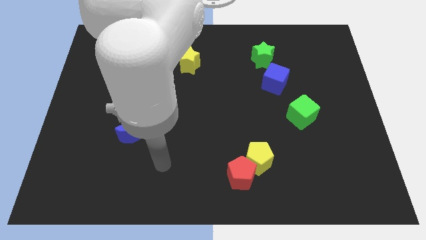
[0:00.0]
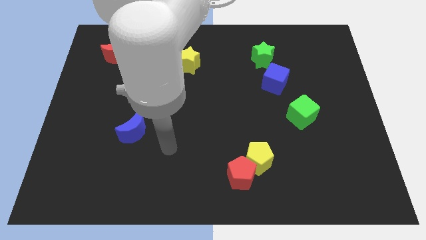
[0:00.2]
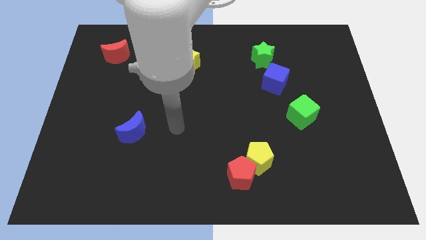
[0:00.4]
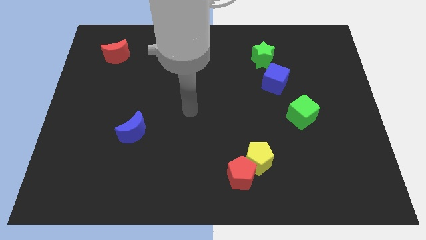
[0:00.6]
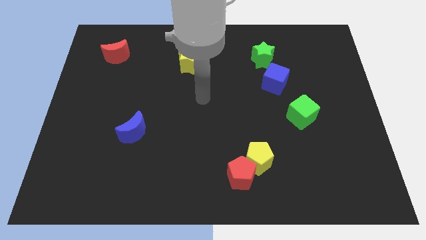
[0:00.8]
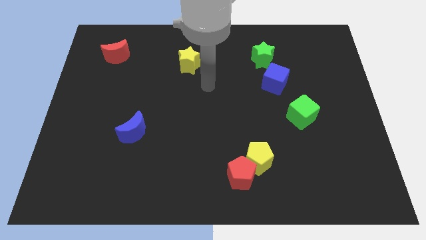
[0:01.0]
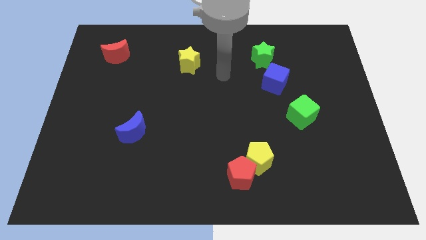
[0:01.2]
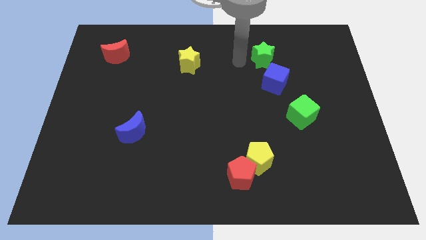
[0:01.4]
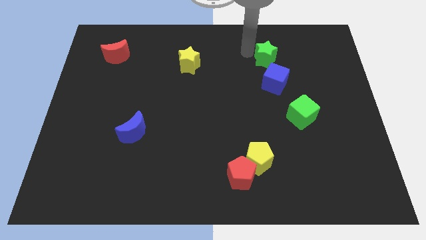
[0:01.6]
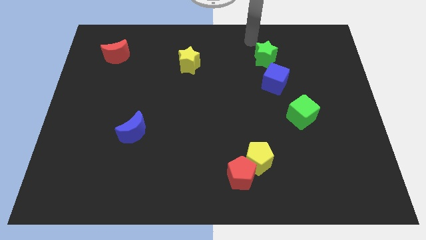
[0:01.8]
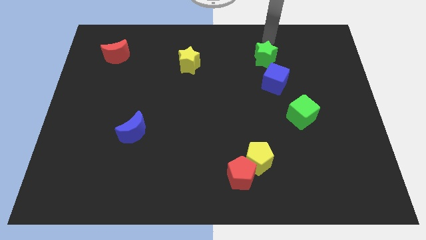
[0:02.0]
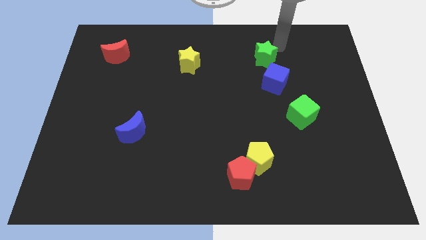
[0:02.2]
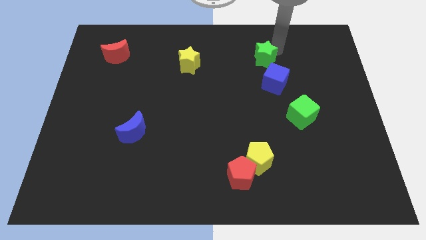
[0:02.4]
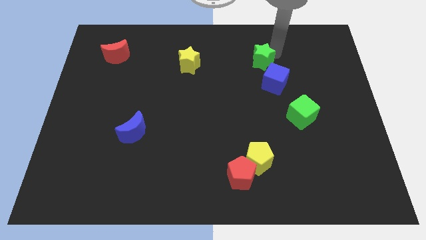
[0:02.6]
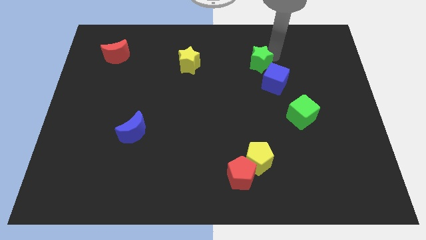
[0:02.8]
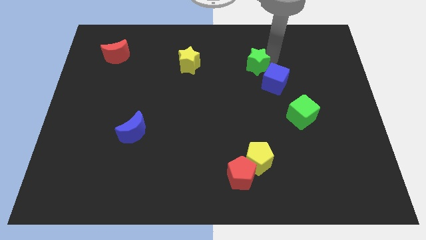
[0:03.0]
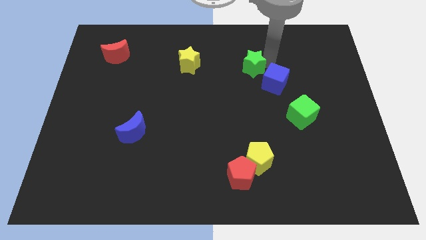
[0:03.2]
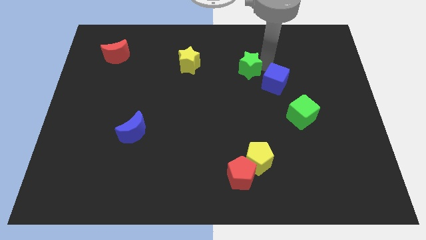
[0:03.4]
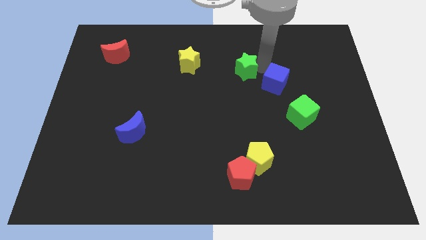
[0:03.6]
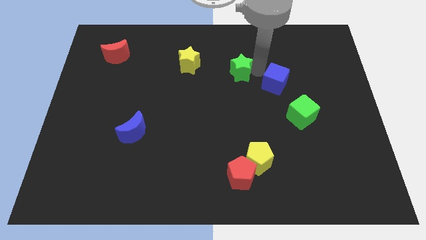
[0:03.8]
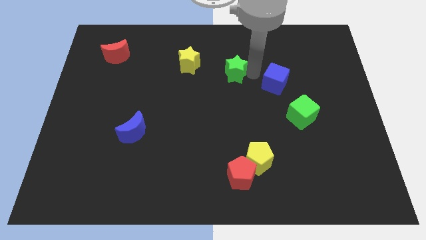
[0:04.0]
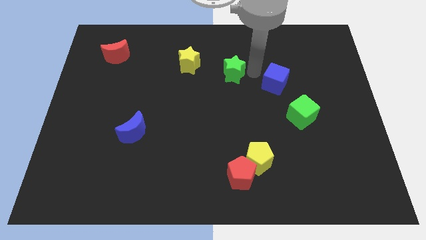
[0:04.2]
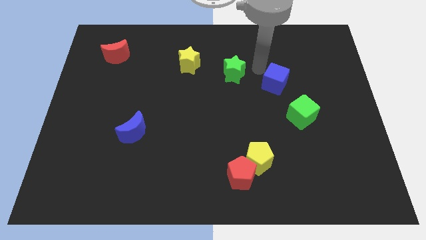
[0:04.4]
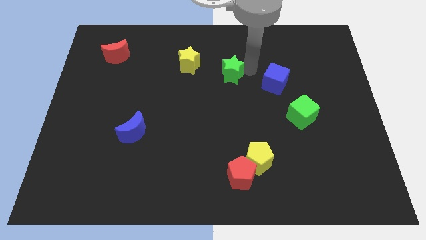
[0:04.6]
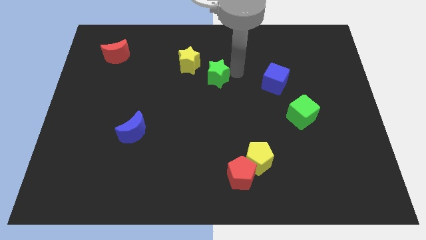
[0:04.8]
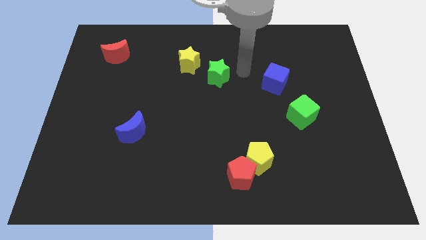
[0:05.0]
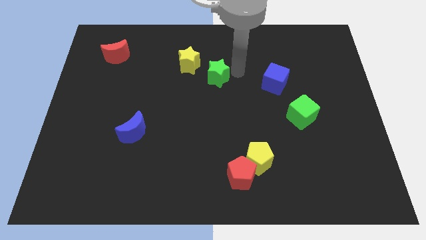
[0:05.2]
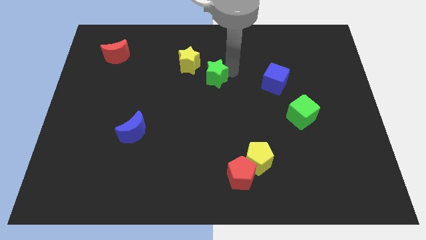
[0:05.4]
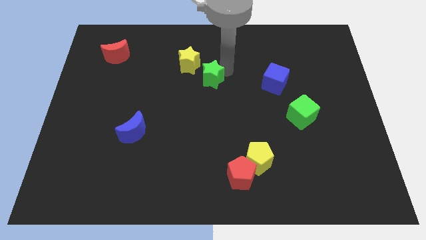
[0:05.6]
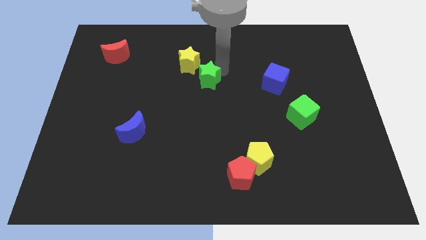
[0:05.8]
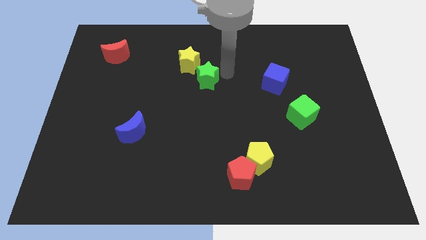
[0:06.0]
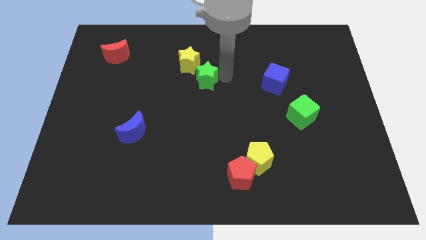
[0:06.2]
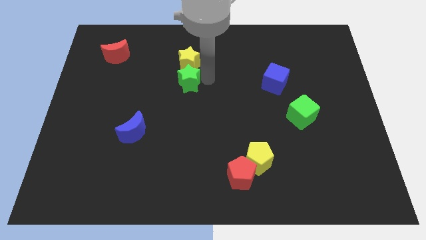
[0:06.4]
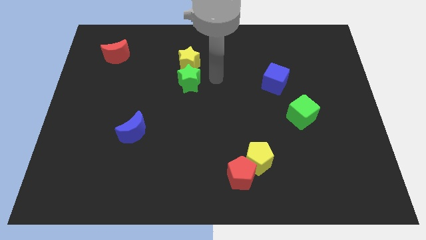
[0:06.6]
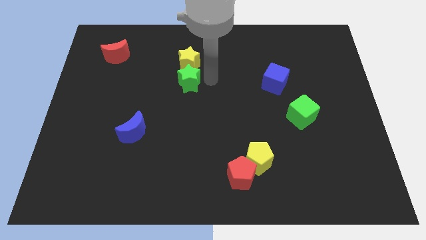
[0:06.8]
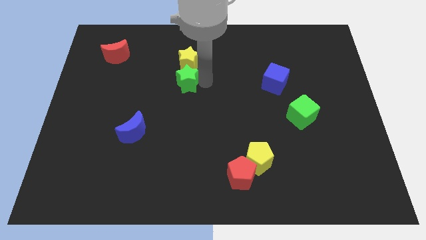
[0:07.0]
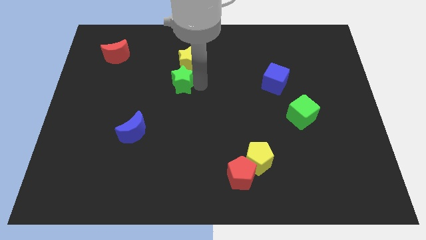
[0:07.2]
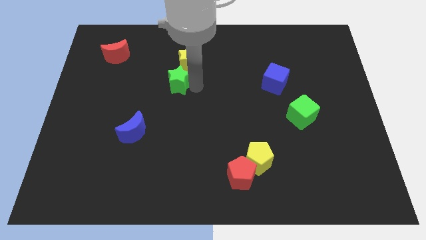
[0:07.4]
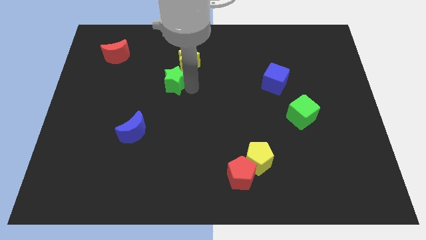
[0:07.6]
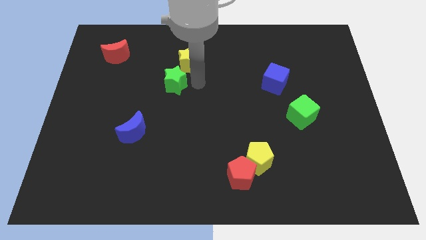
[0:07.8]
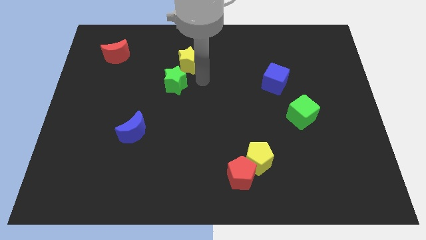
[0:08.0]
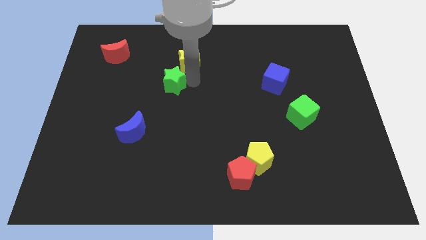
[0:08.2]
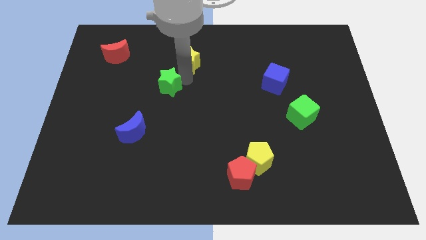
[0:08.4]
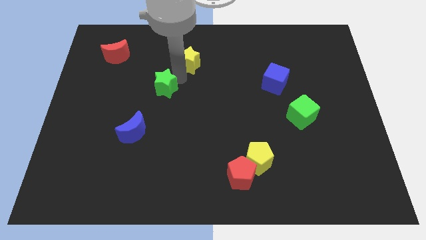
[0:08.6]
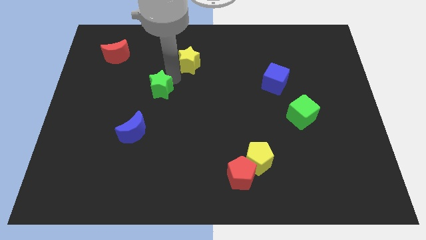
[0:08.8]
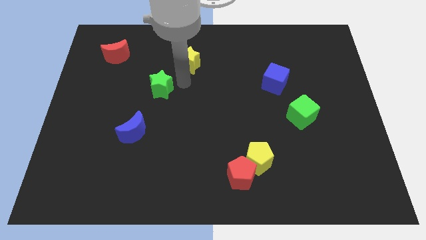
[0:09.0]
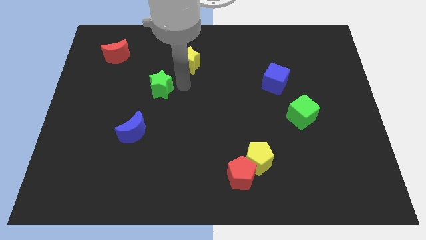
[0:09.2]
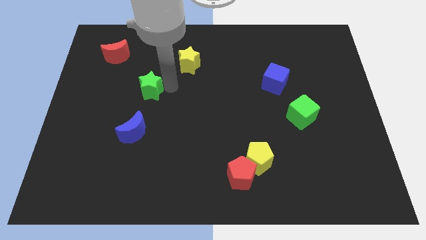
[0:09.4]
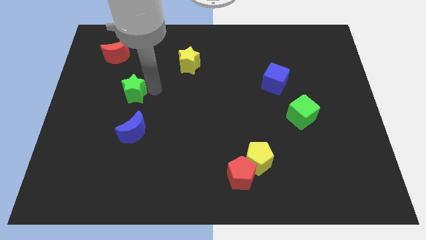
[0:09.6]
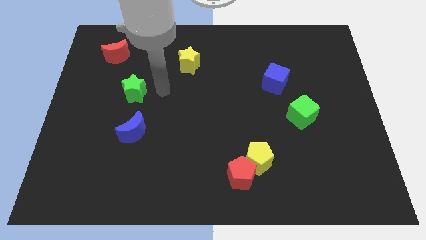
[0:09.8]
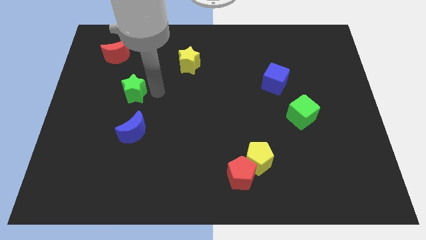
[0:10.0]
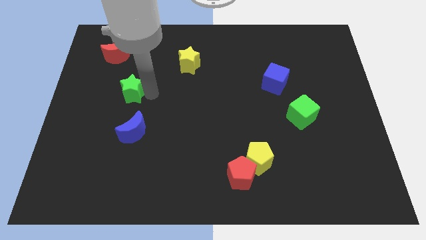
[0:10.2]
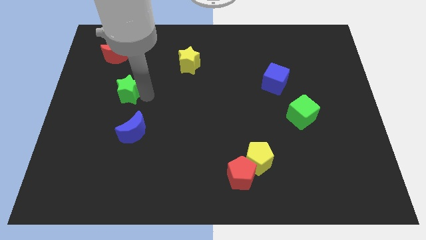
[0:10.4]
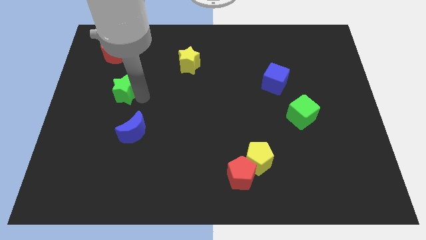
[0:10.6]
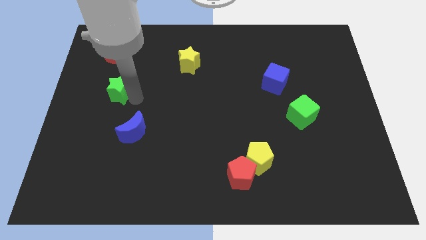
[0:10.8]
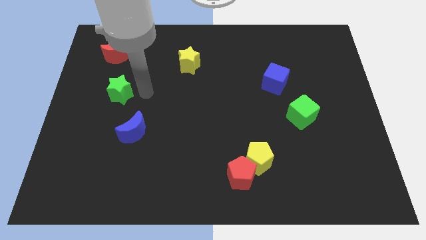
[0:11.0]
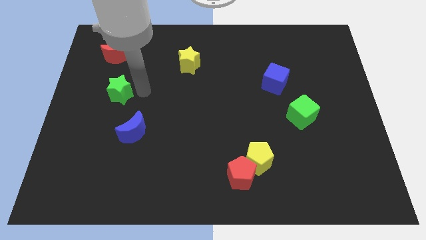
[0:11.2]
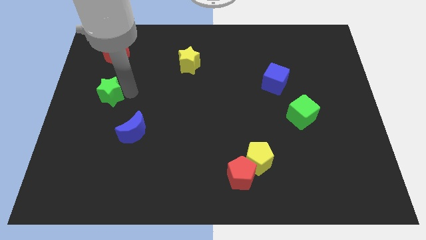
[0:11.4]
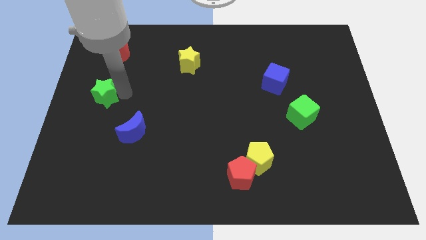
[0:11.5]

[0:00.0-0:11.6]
slide the green star to the left side of the board
